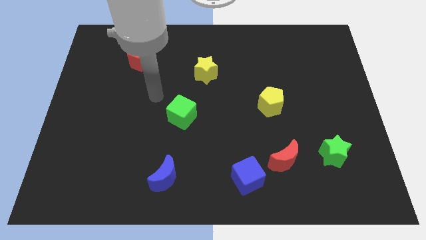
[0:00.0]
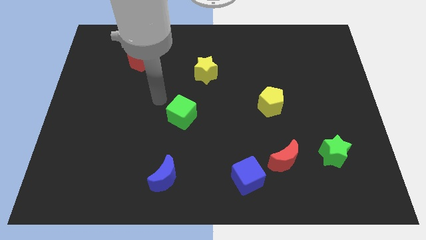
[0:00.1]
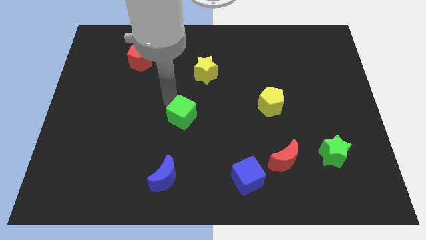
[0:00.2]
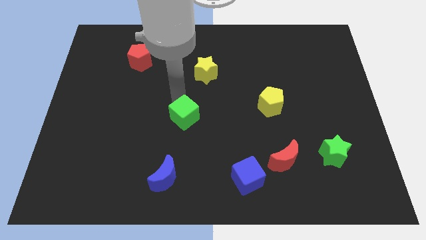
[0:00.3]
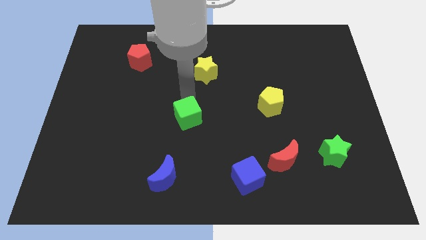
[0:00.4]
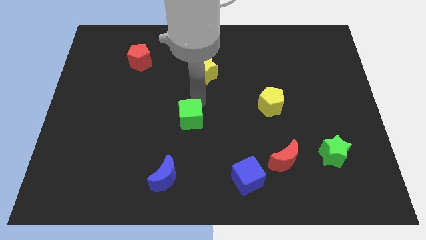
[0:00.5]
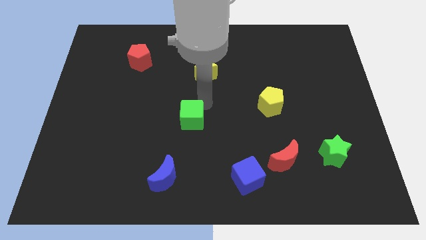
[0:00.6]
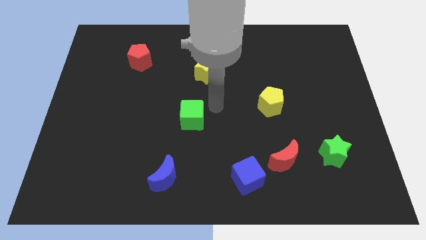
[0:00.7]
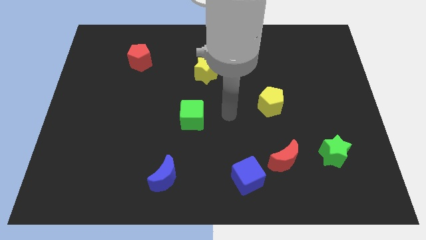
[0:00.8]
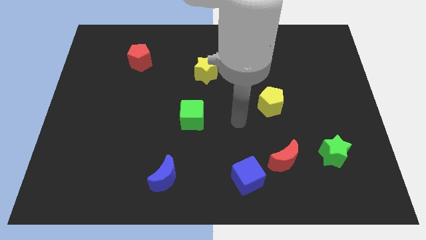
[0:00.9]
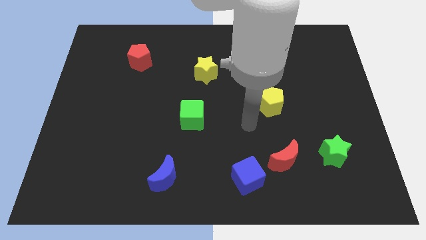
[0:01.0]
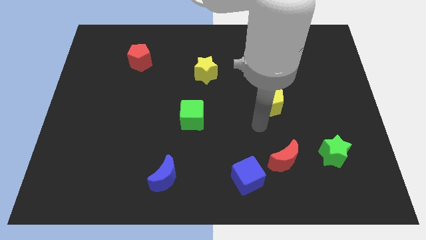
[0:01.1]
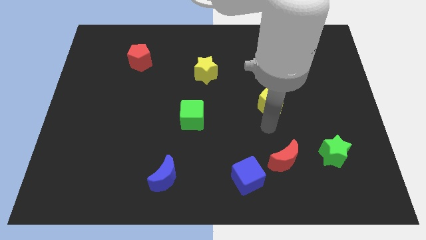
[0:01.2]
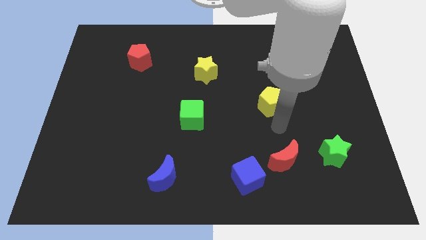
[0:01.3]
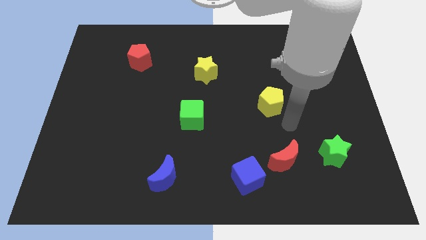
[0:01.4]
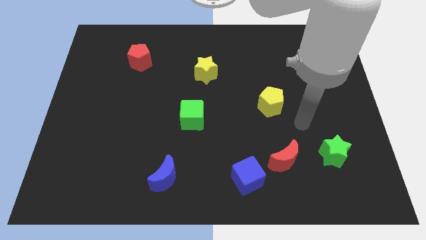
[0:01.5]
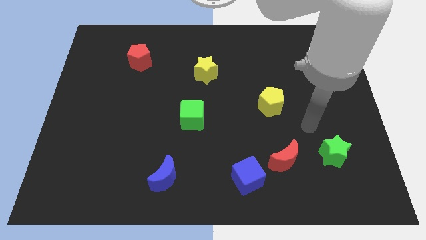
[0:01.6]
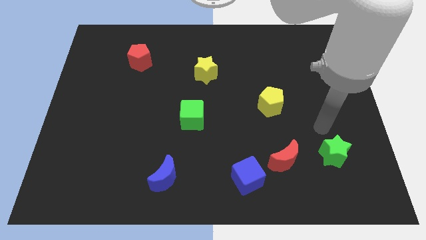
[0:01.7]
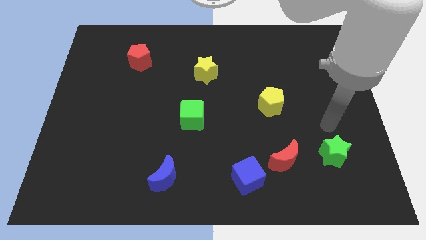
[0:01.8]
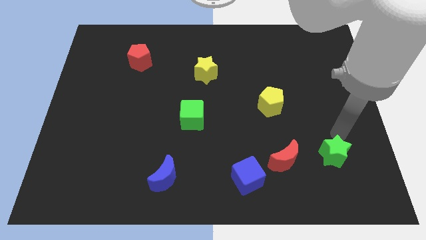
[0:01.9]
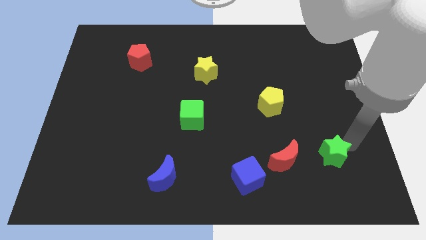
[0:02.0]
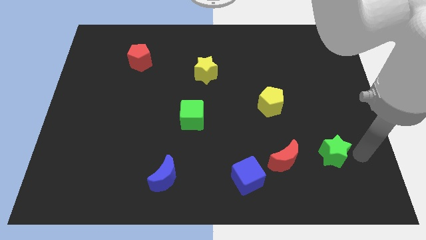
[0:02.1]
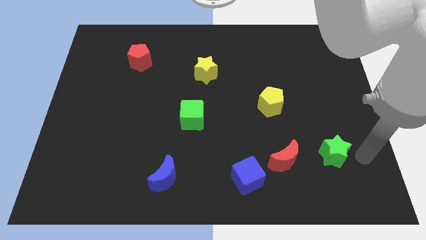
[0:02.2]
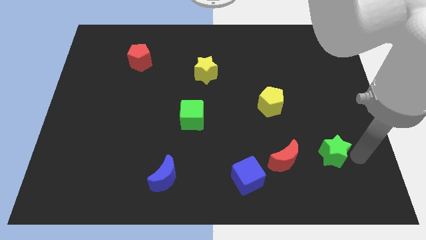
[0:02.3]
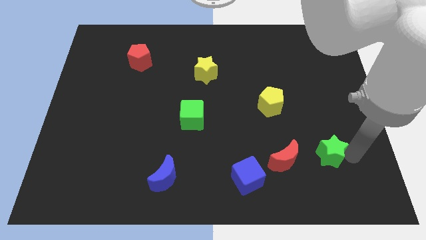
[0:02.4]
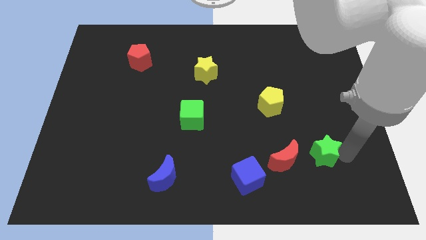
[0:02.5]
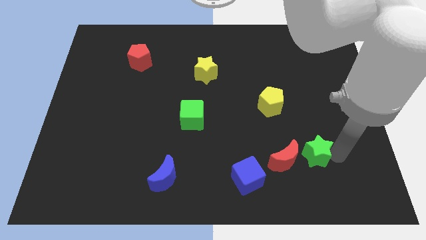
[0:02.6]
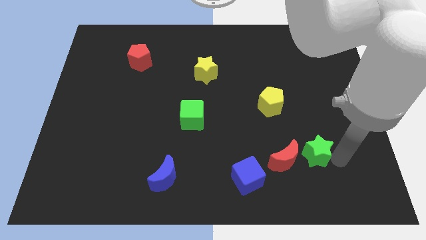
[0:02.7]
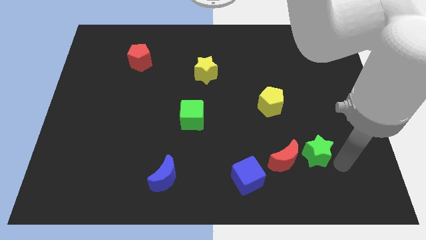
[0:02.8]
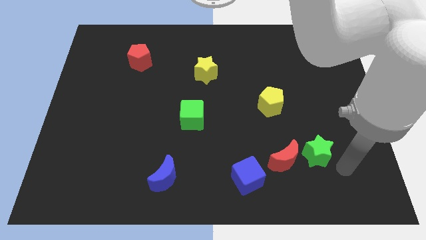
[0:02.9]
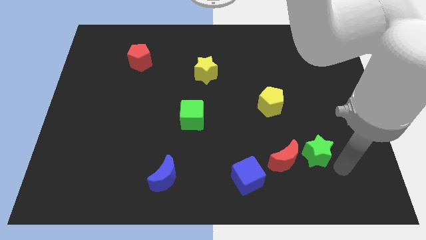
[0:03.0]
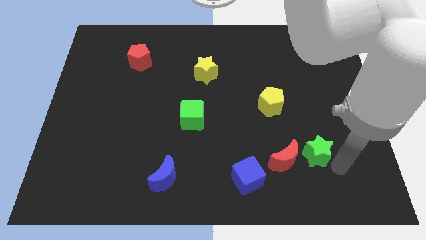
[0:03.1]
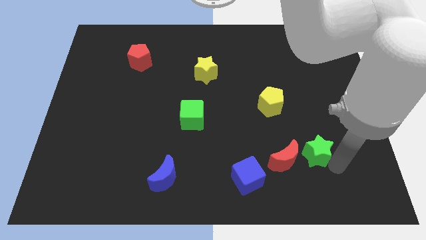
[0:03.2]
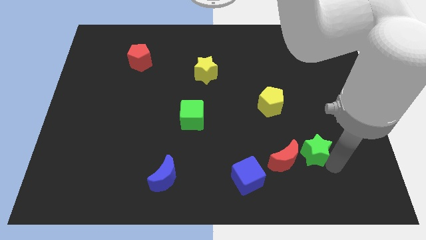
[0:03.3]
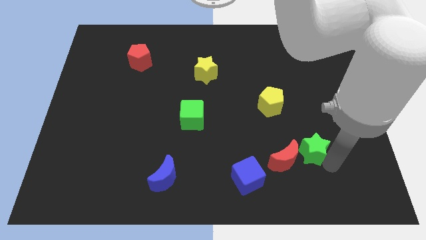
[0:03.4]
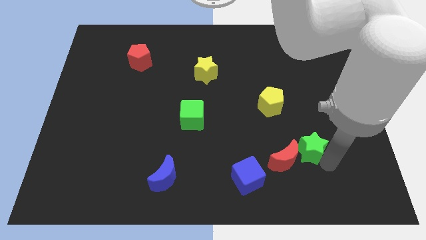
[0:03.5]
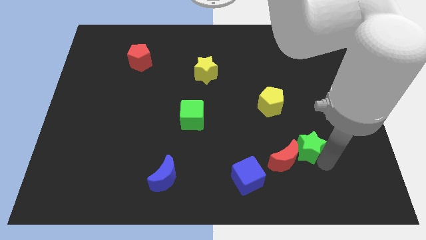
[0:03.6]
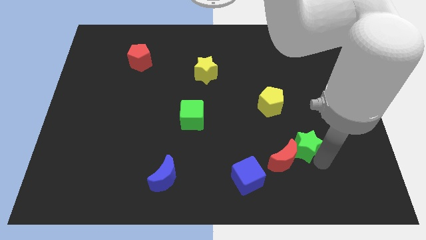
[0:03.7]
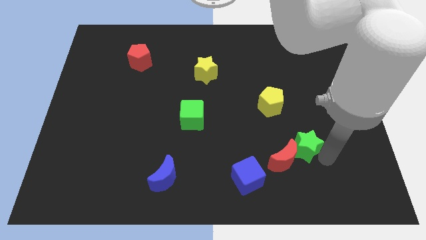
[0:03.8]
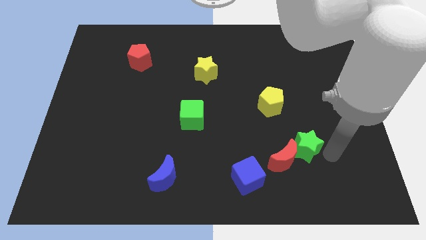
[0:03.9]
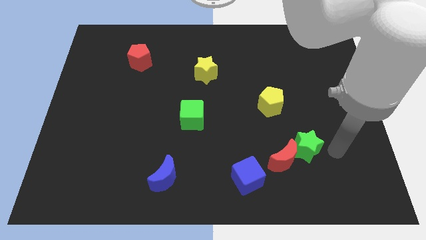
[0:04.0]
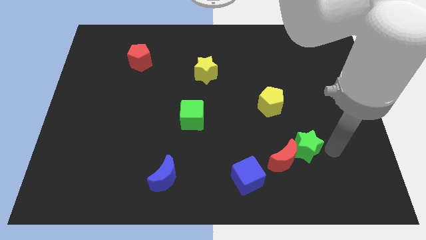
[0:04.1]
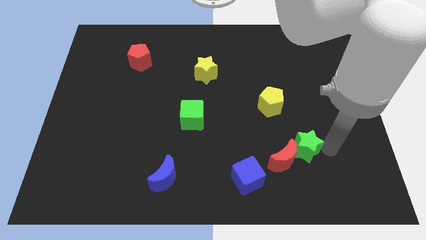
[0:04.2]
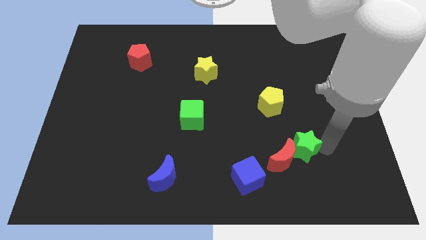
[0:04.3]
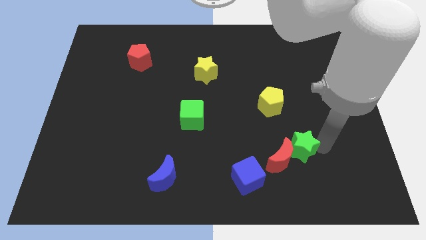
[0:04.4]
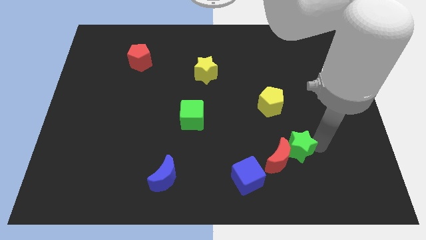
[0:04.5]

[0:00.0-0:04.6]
slide the green star to the left slightly

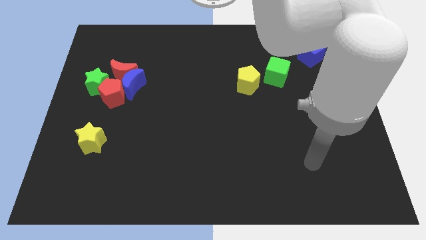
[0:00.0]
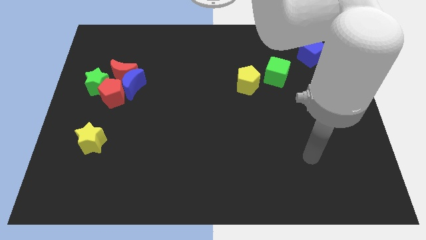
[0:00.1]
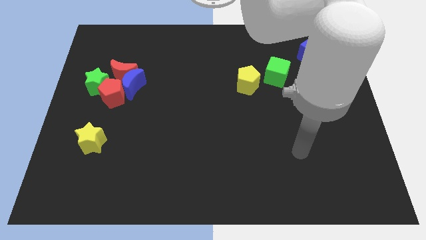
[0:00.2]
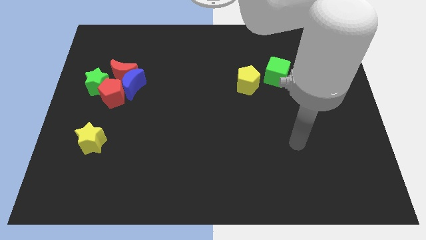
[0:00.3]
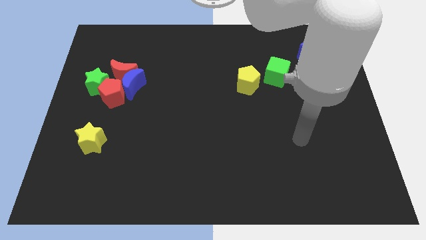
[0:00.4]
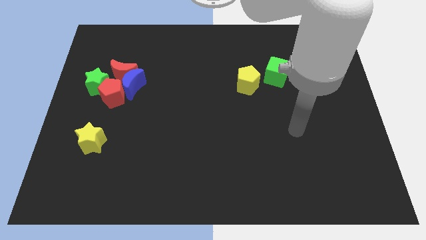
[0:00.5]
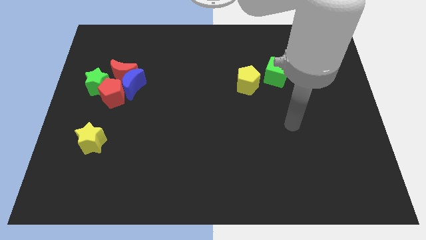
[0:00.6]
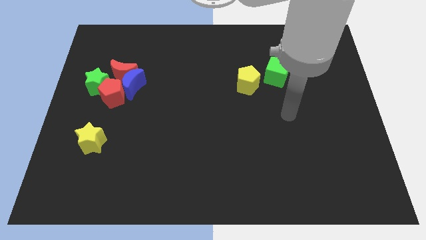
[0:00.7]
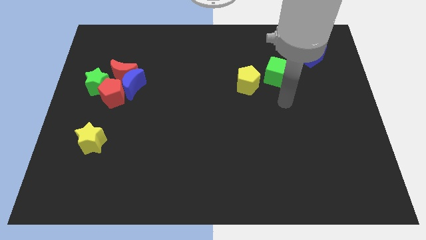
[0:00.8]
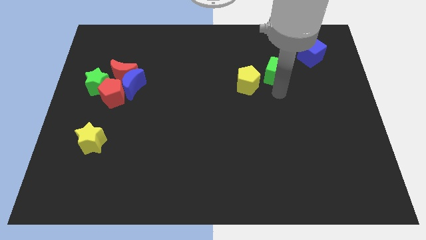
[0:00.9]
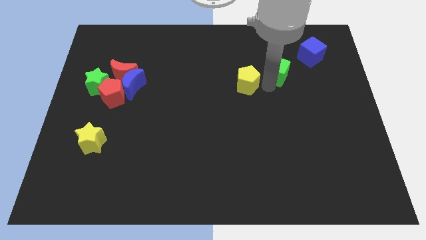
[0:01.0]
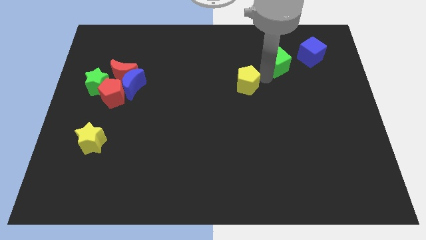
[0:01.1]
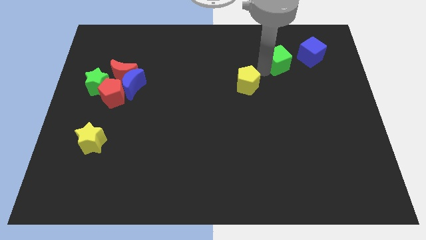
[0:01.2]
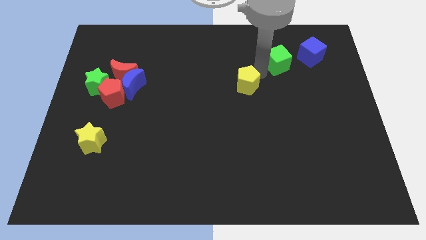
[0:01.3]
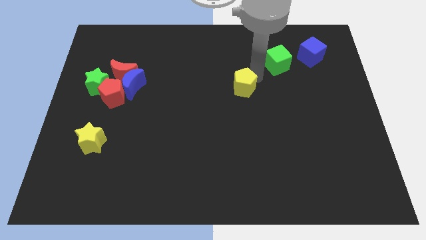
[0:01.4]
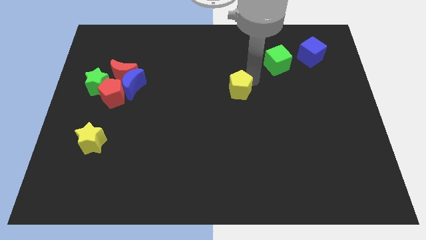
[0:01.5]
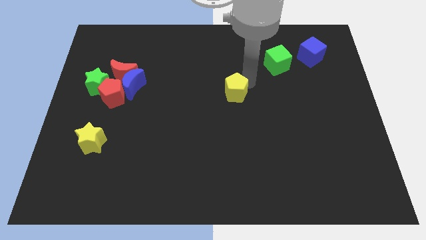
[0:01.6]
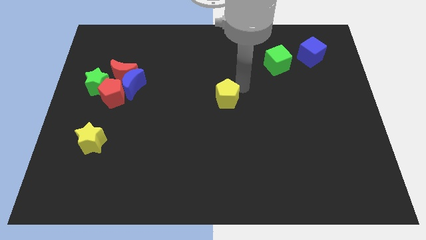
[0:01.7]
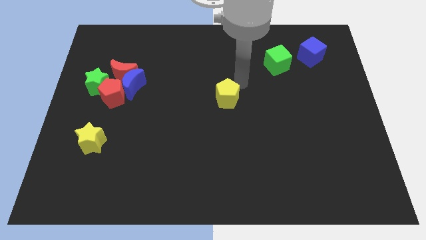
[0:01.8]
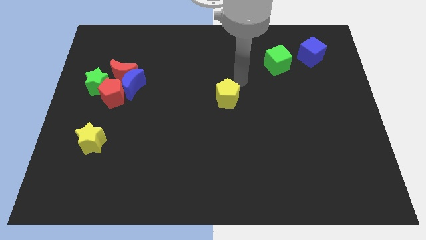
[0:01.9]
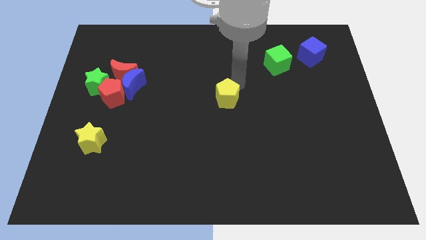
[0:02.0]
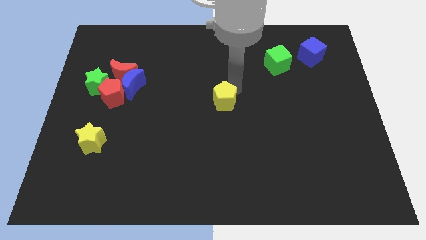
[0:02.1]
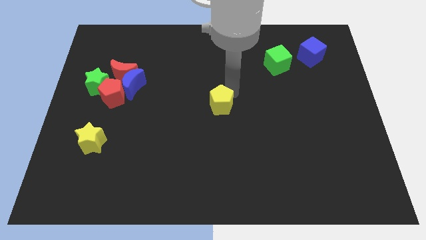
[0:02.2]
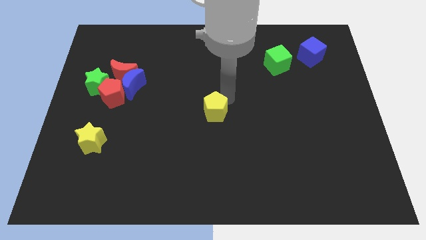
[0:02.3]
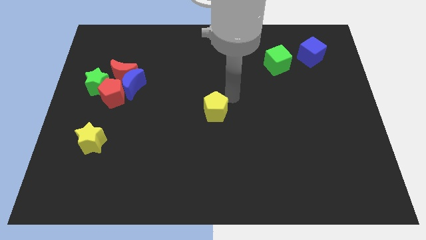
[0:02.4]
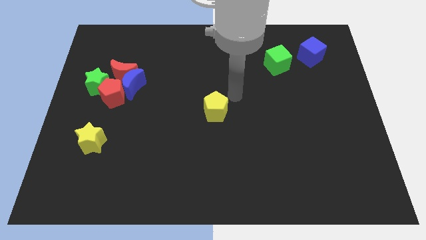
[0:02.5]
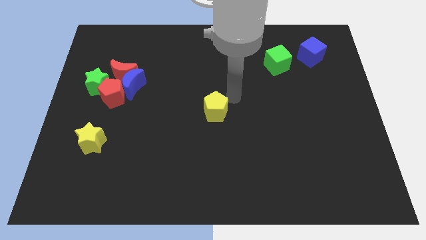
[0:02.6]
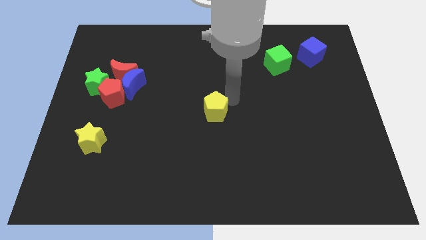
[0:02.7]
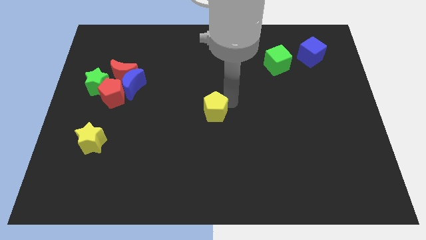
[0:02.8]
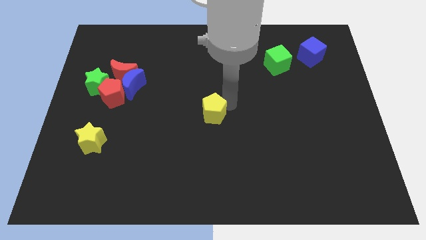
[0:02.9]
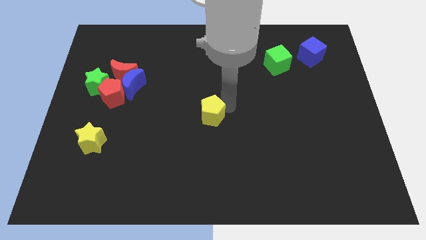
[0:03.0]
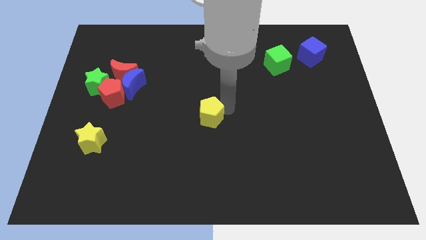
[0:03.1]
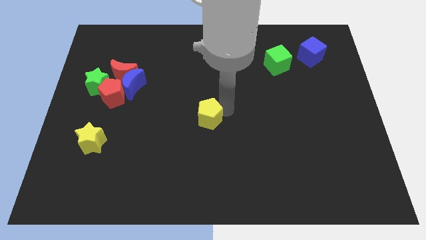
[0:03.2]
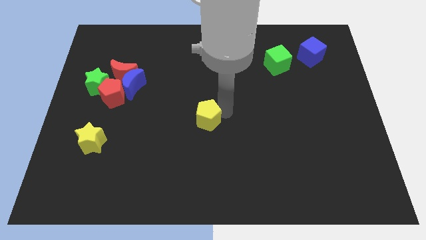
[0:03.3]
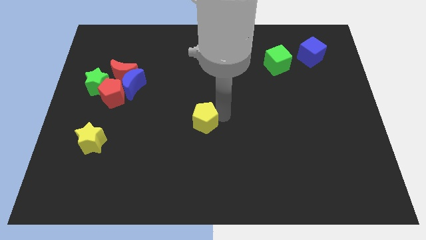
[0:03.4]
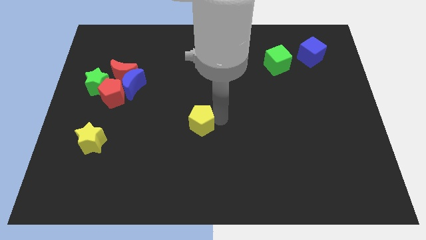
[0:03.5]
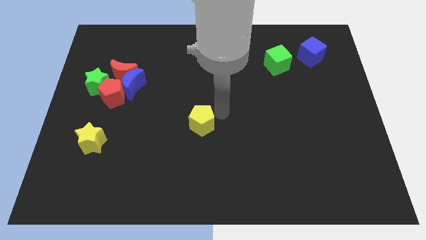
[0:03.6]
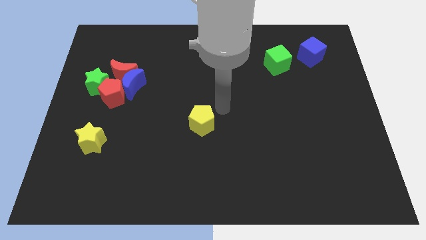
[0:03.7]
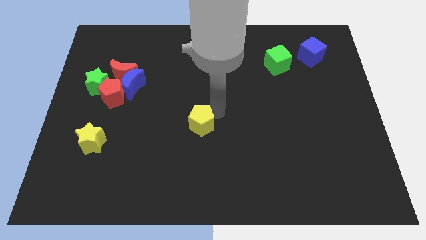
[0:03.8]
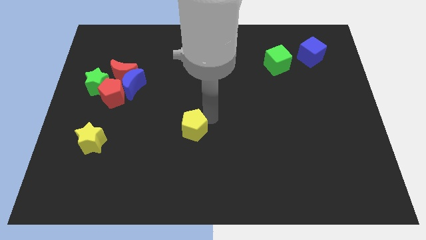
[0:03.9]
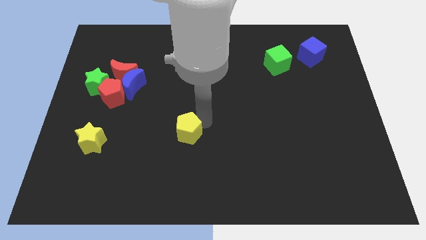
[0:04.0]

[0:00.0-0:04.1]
move the yellow pentagon downwards and to the left diagonally
